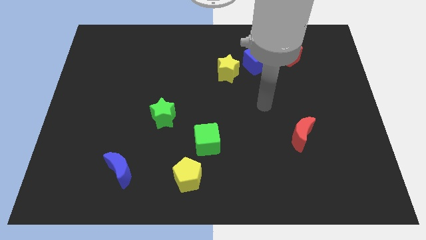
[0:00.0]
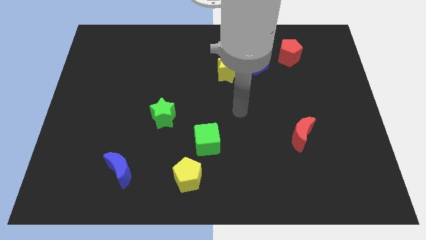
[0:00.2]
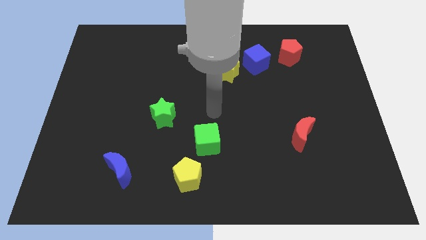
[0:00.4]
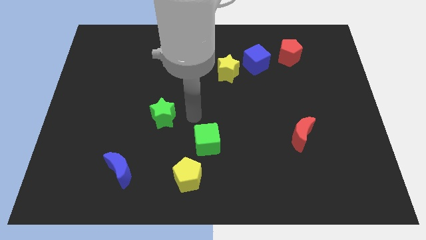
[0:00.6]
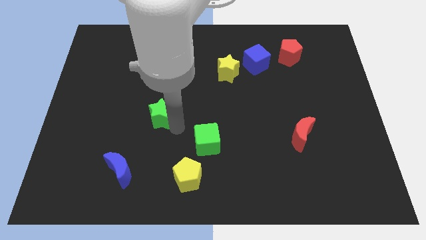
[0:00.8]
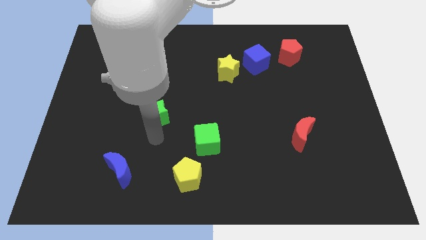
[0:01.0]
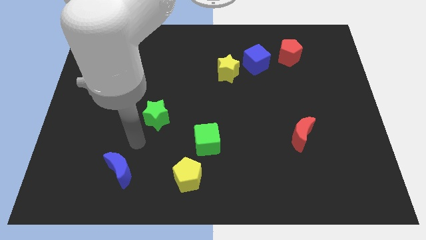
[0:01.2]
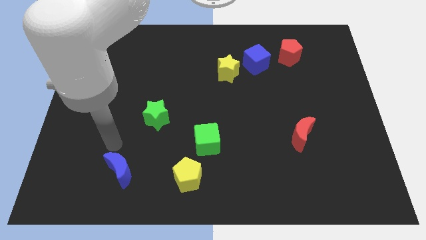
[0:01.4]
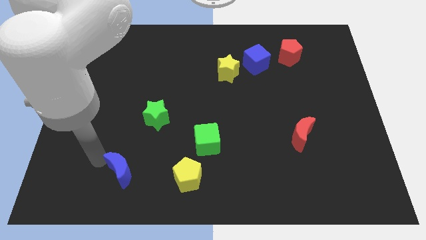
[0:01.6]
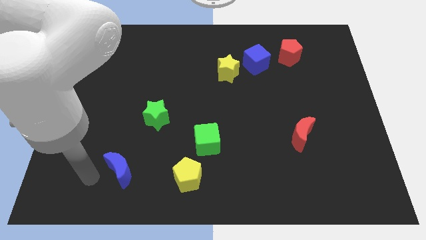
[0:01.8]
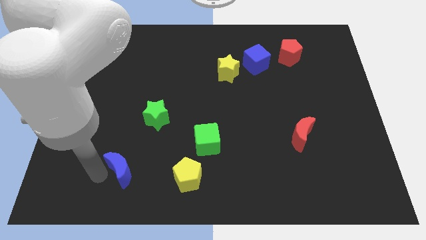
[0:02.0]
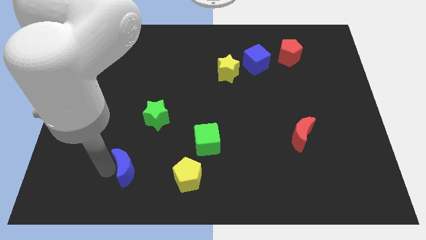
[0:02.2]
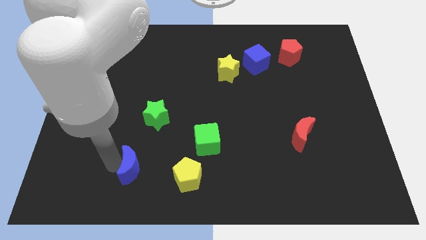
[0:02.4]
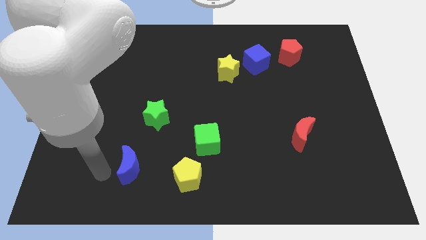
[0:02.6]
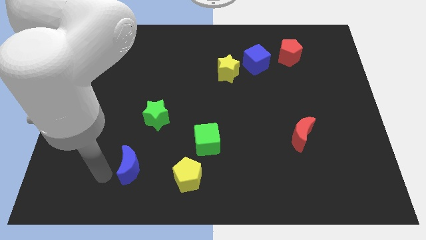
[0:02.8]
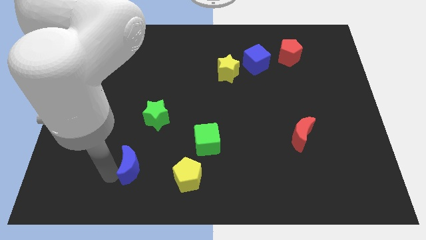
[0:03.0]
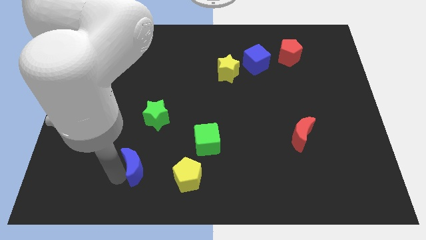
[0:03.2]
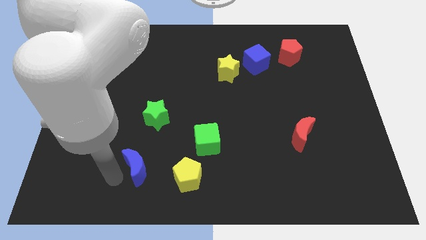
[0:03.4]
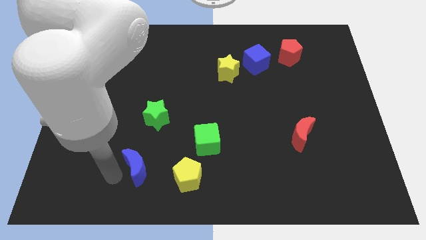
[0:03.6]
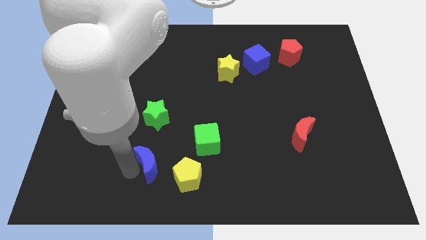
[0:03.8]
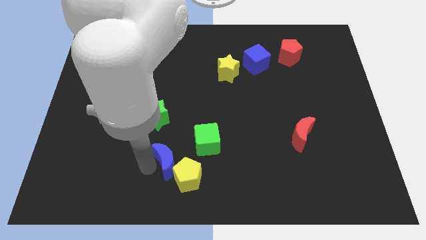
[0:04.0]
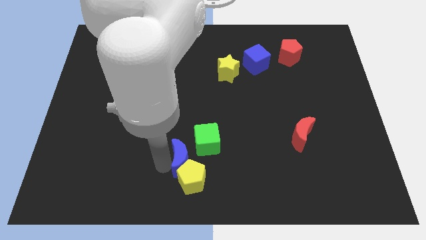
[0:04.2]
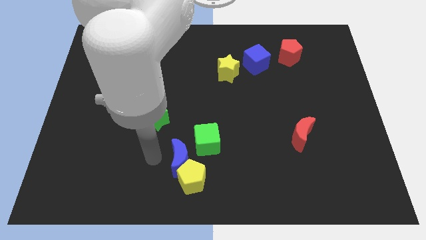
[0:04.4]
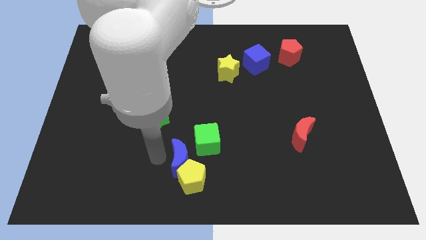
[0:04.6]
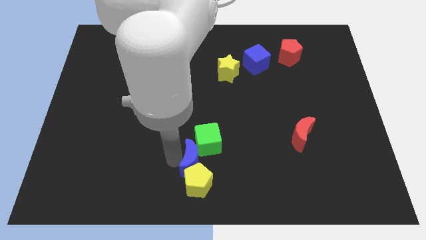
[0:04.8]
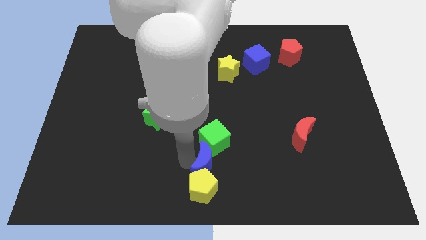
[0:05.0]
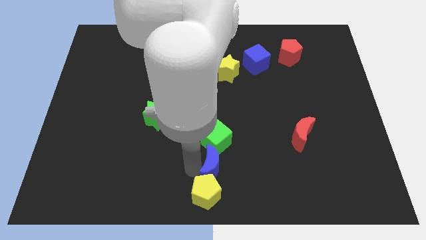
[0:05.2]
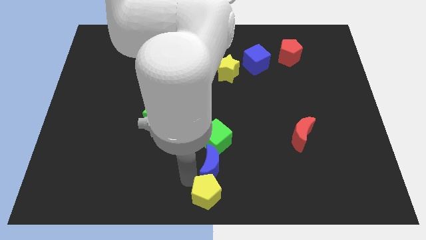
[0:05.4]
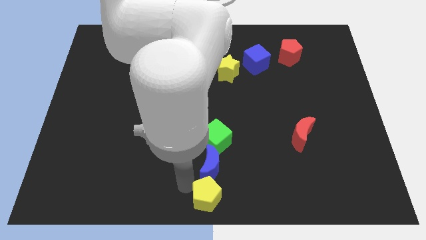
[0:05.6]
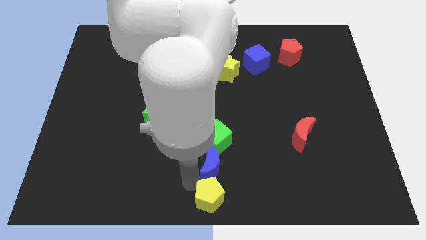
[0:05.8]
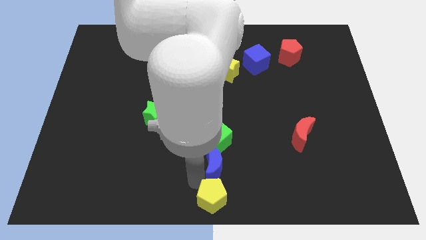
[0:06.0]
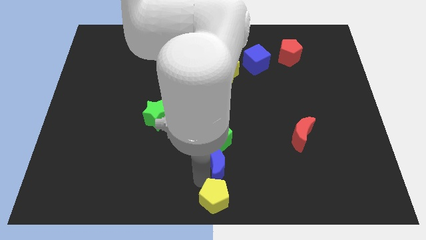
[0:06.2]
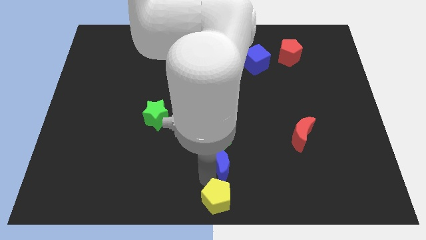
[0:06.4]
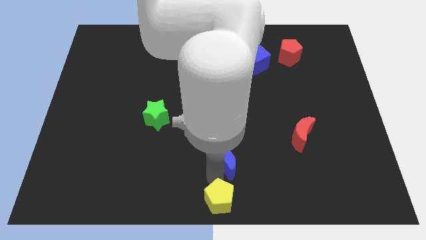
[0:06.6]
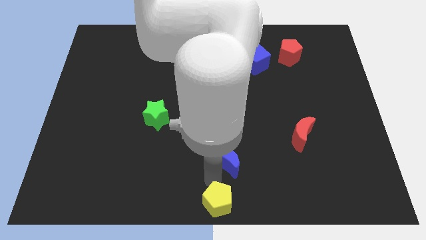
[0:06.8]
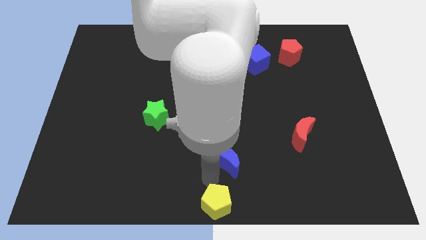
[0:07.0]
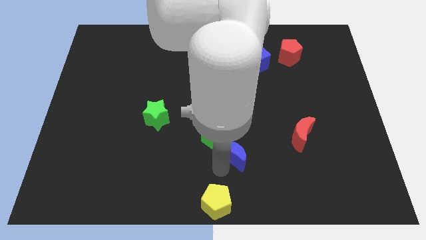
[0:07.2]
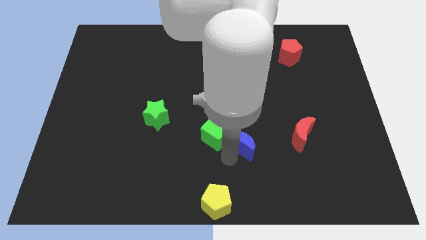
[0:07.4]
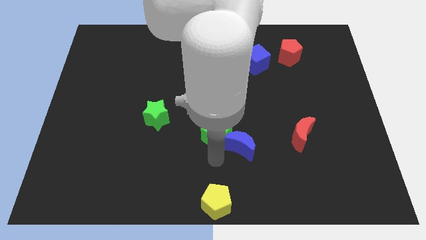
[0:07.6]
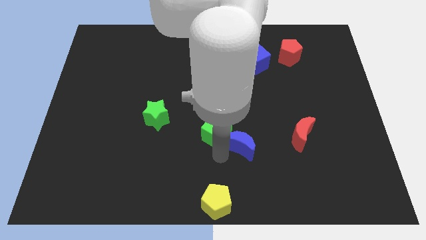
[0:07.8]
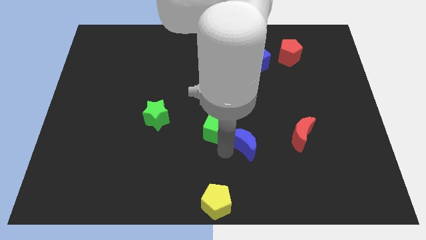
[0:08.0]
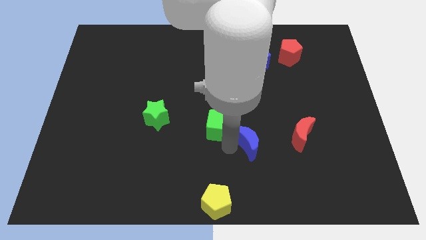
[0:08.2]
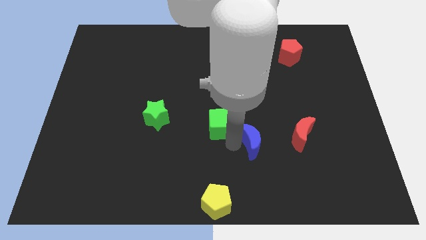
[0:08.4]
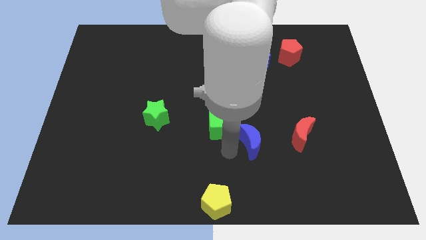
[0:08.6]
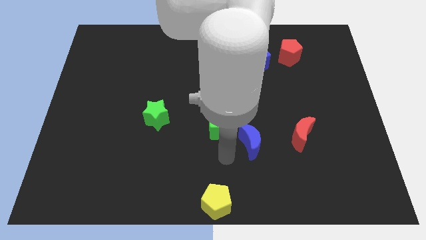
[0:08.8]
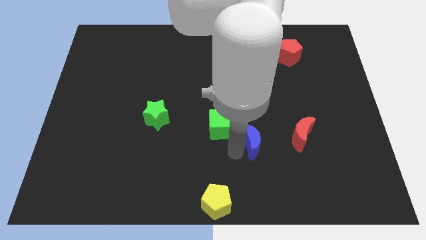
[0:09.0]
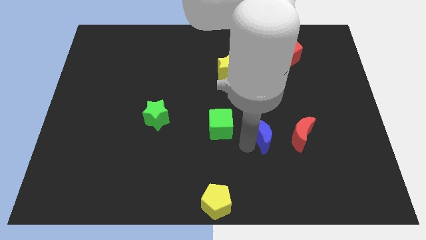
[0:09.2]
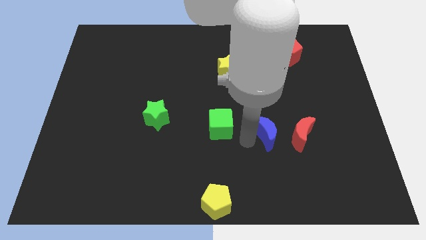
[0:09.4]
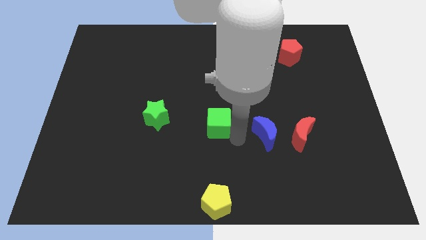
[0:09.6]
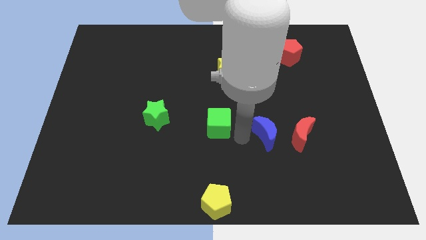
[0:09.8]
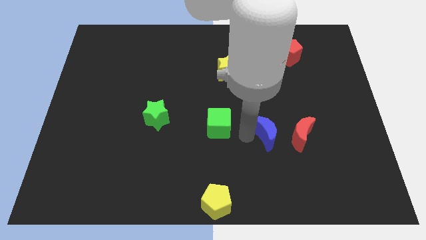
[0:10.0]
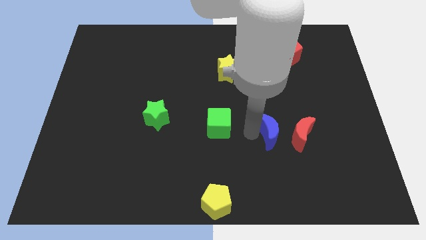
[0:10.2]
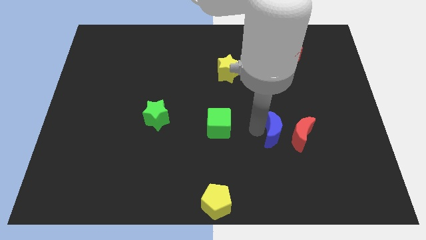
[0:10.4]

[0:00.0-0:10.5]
put the blue moon towards the red moon

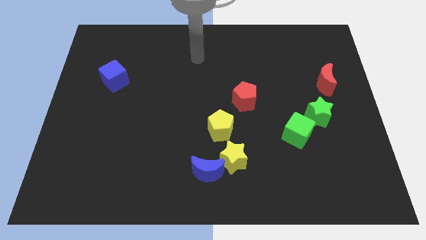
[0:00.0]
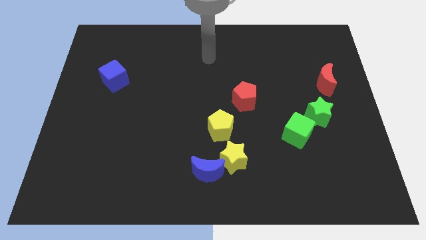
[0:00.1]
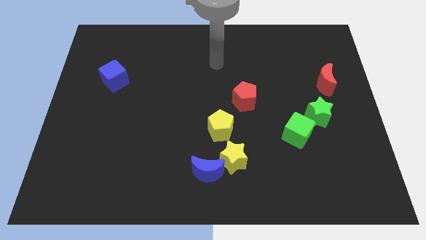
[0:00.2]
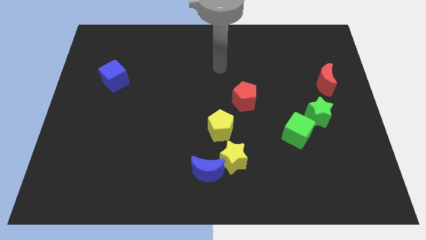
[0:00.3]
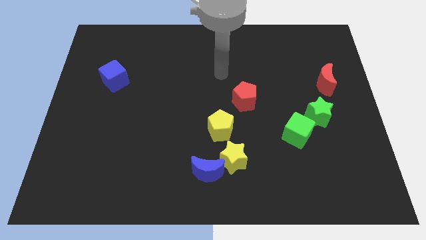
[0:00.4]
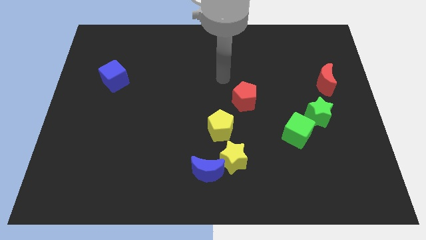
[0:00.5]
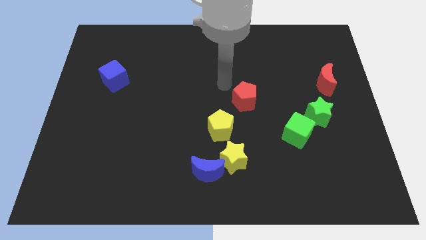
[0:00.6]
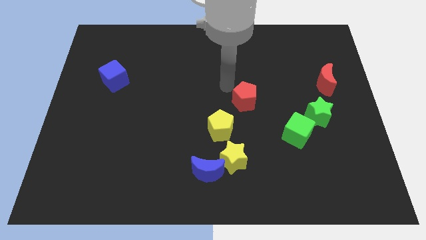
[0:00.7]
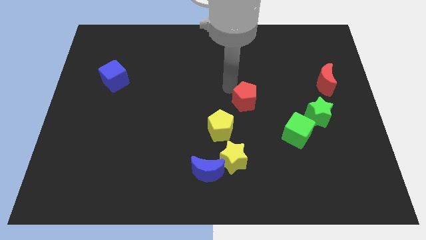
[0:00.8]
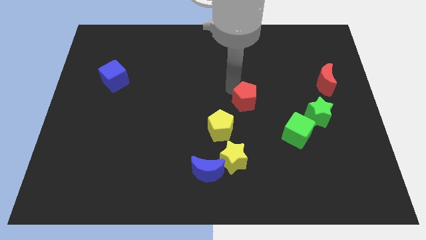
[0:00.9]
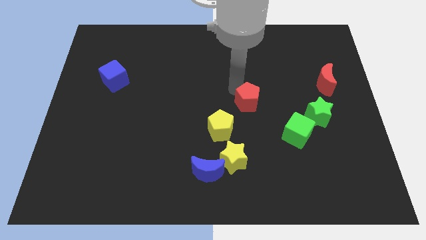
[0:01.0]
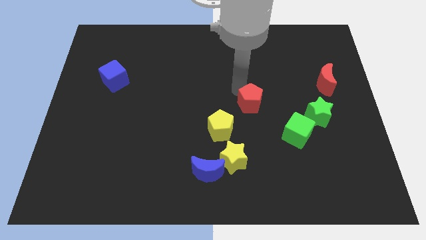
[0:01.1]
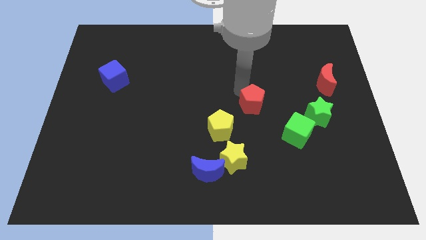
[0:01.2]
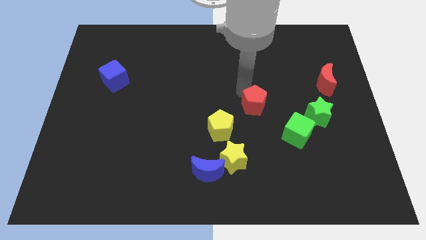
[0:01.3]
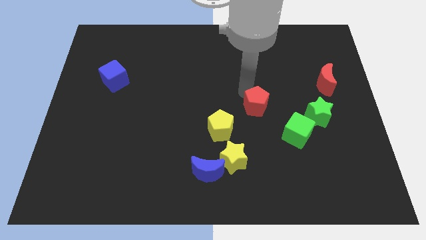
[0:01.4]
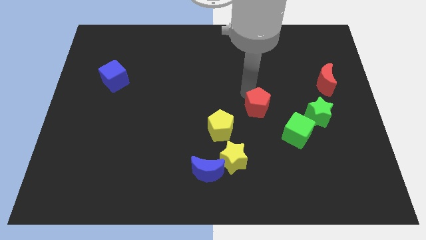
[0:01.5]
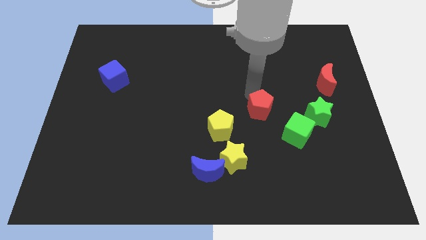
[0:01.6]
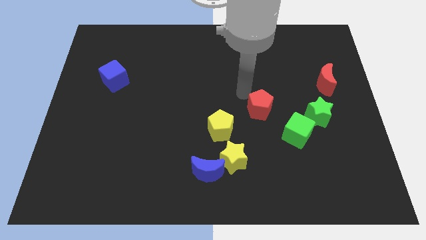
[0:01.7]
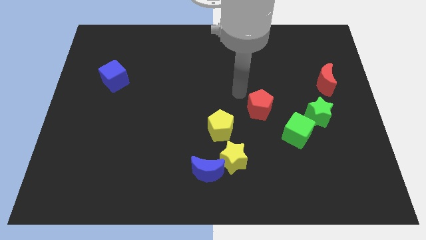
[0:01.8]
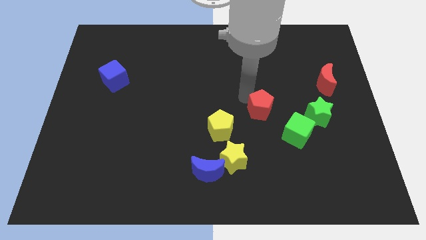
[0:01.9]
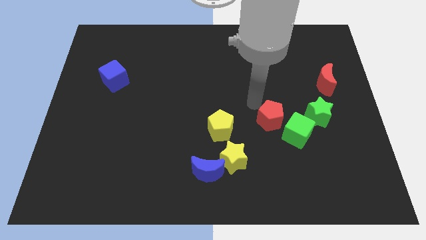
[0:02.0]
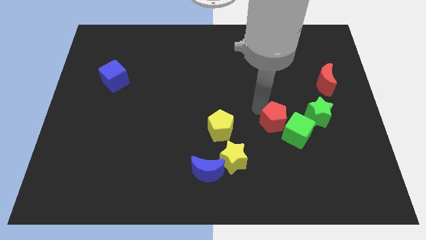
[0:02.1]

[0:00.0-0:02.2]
put the red pentagon to the green cube

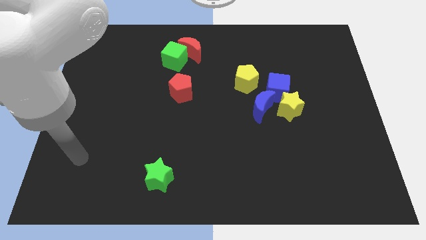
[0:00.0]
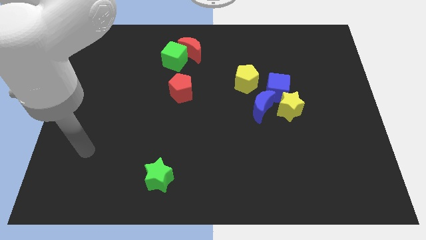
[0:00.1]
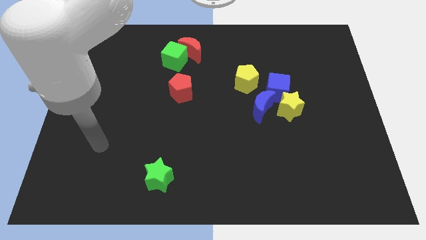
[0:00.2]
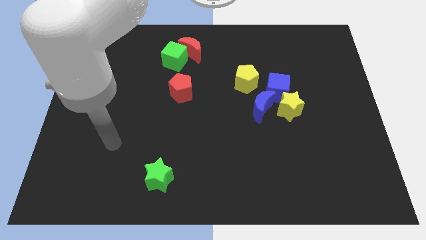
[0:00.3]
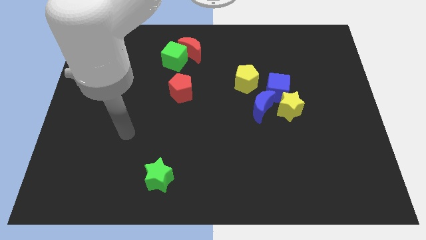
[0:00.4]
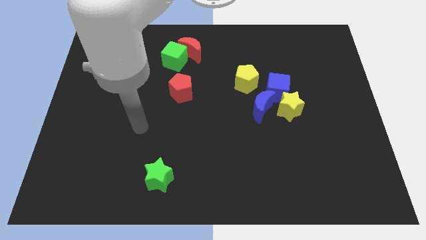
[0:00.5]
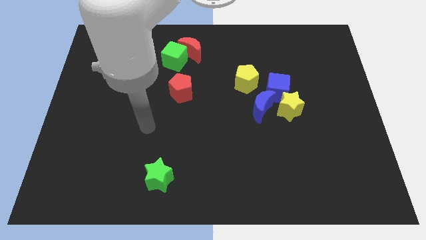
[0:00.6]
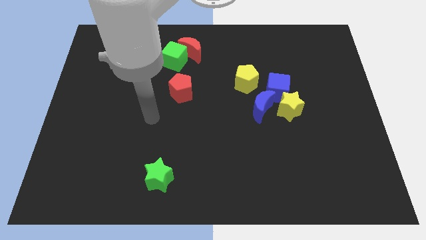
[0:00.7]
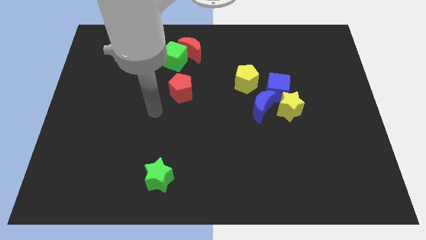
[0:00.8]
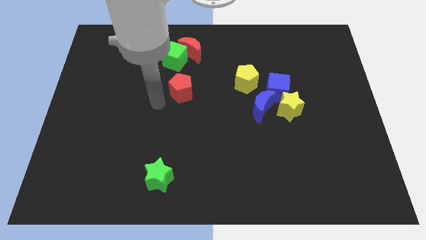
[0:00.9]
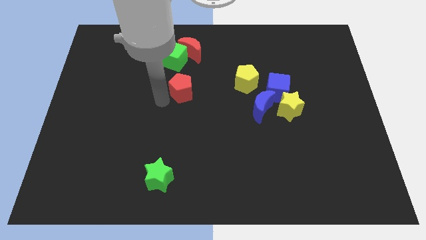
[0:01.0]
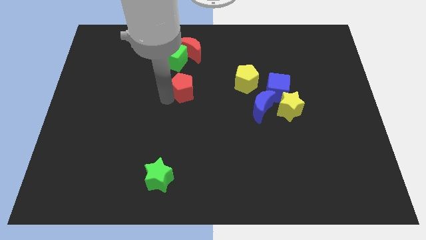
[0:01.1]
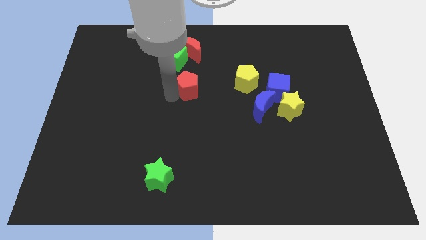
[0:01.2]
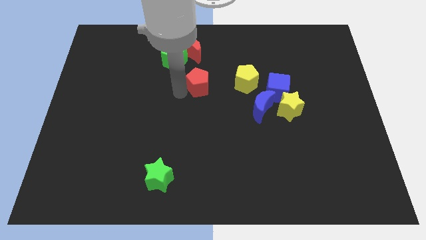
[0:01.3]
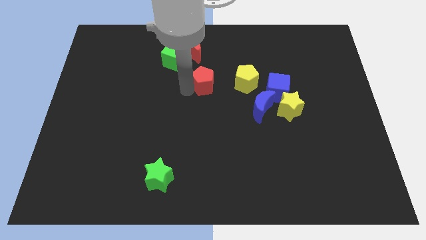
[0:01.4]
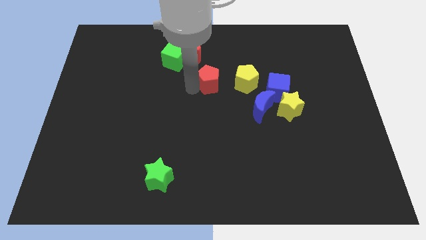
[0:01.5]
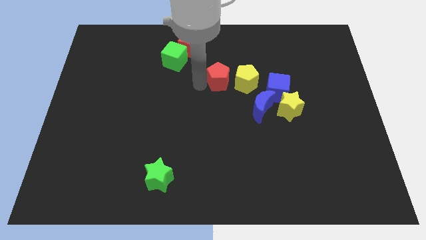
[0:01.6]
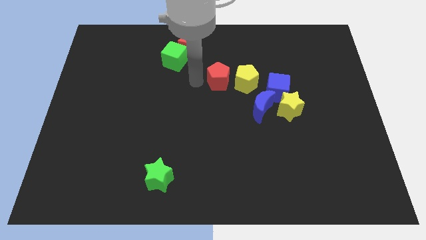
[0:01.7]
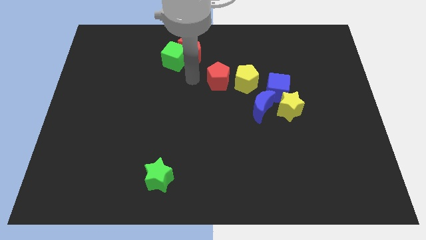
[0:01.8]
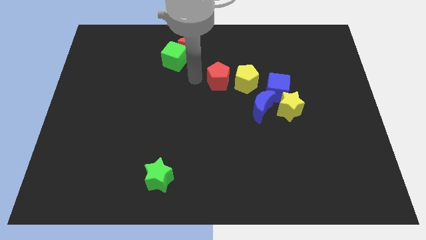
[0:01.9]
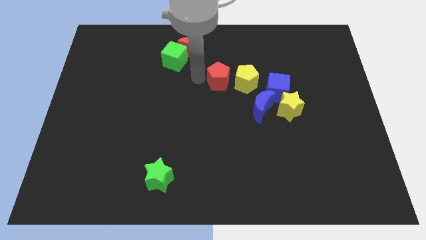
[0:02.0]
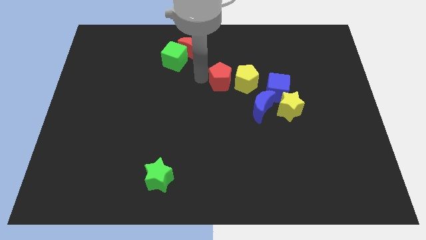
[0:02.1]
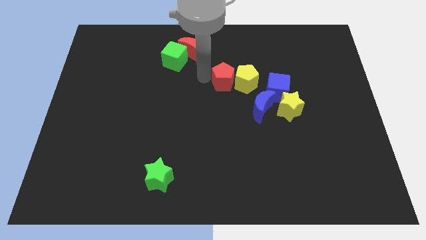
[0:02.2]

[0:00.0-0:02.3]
put the red pentagon to the yellow pentagon
